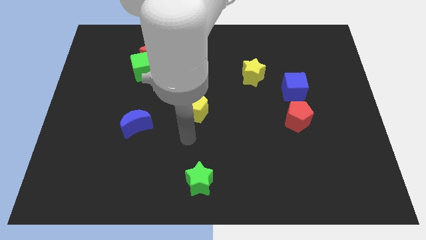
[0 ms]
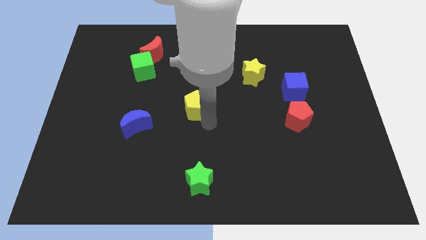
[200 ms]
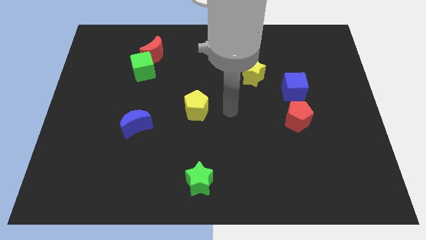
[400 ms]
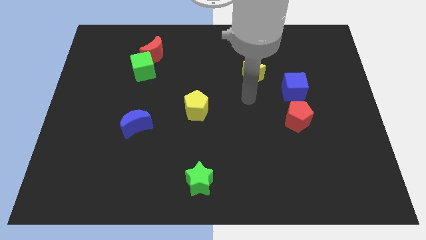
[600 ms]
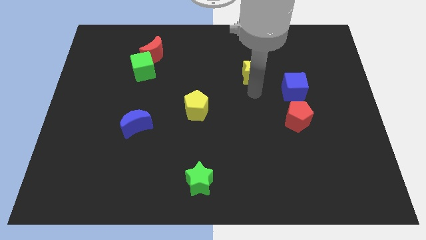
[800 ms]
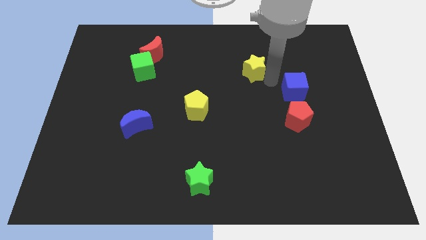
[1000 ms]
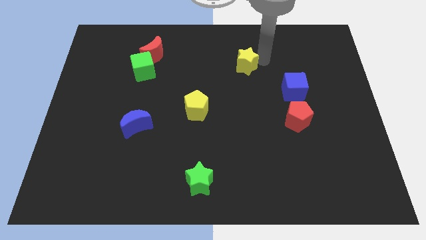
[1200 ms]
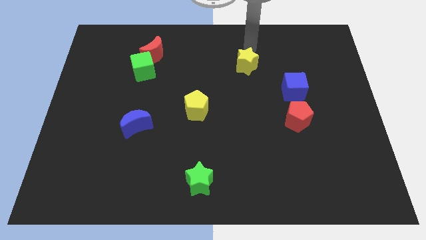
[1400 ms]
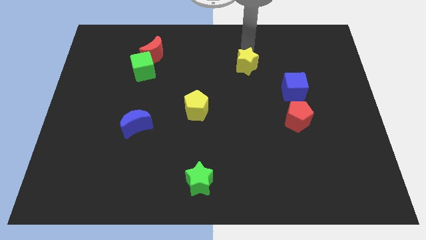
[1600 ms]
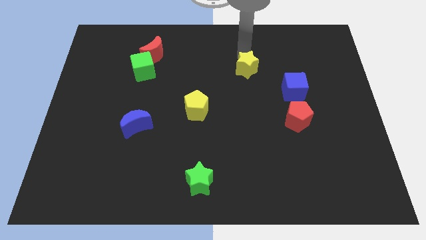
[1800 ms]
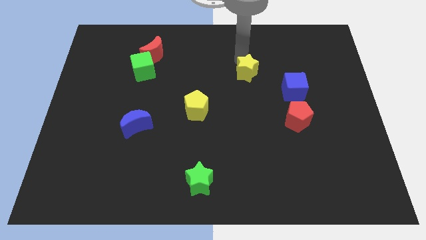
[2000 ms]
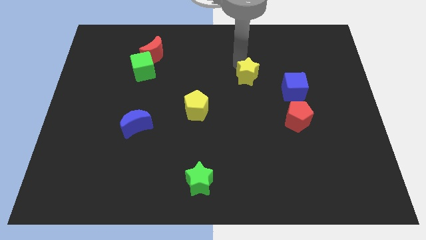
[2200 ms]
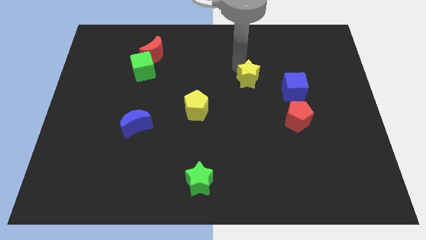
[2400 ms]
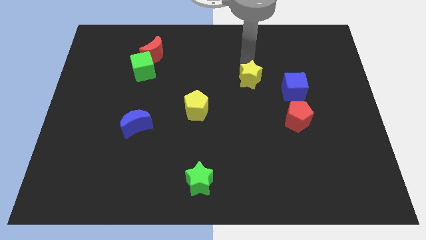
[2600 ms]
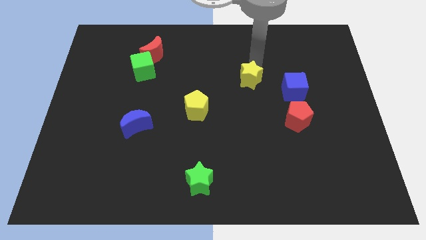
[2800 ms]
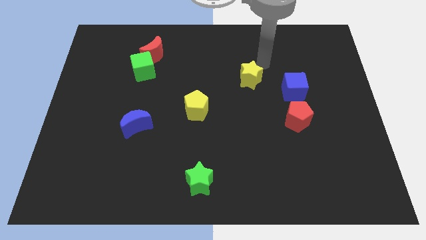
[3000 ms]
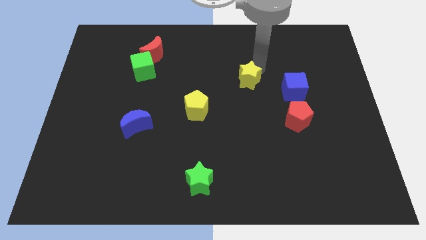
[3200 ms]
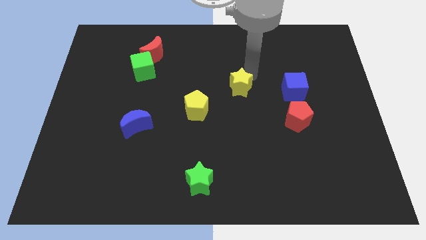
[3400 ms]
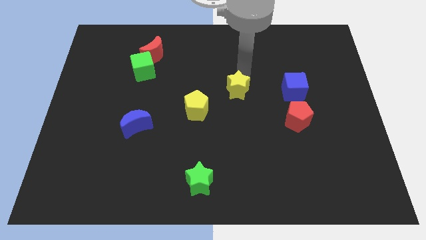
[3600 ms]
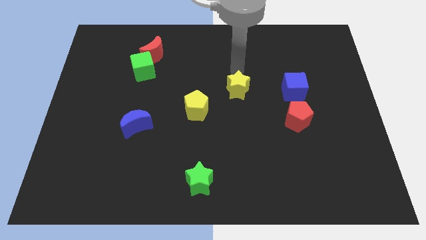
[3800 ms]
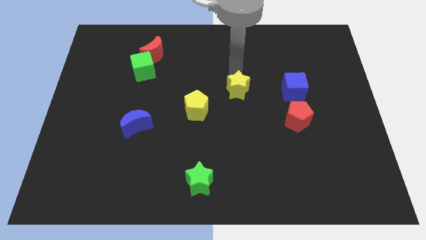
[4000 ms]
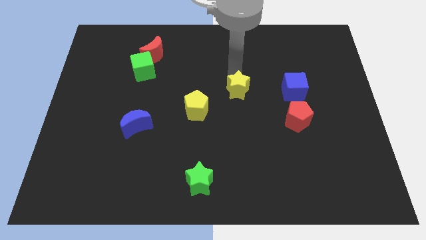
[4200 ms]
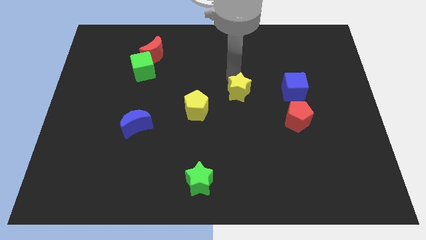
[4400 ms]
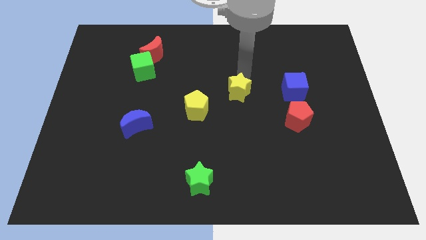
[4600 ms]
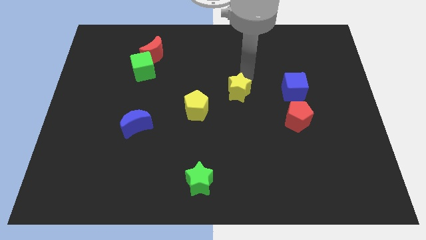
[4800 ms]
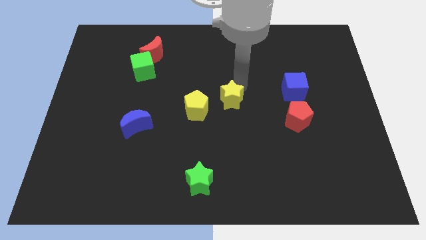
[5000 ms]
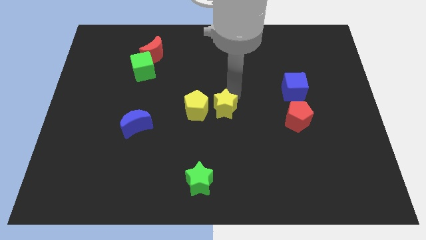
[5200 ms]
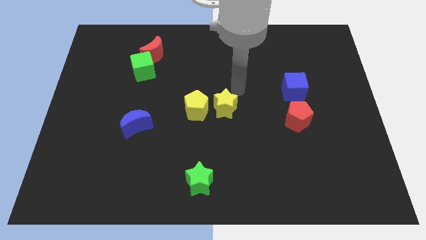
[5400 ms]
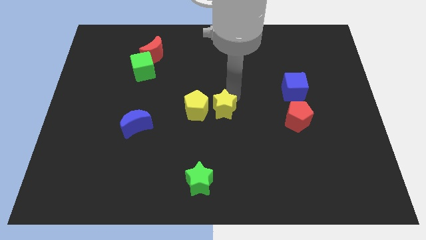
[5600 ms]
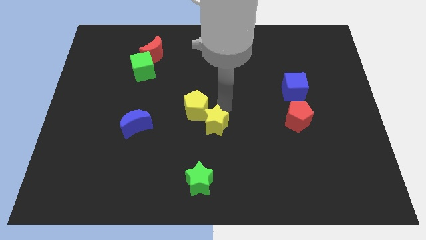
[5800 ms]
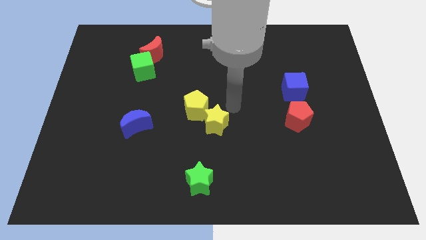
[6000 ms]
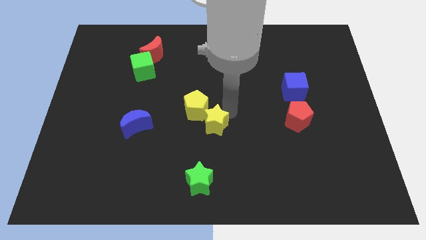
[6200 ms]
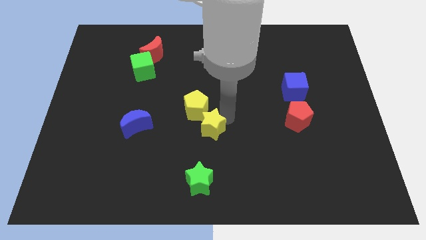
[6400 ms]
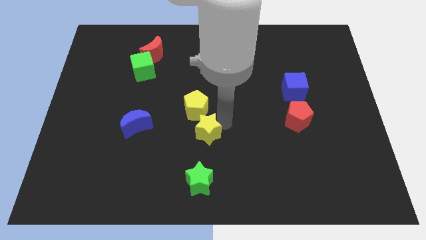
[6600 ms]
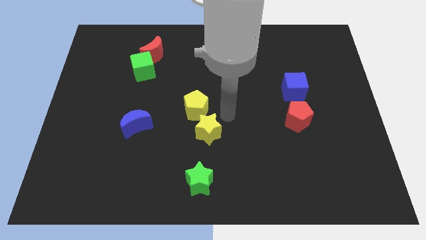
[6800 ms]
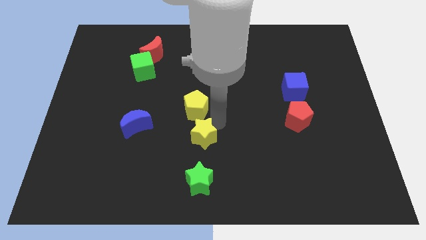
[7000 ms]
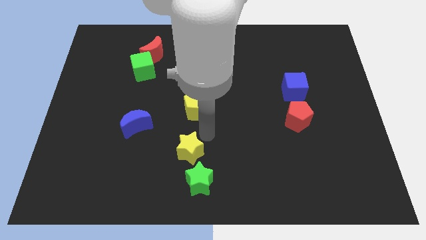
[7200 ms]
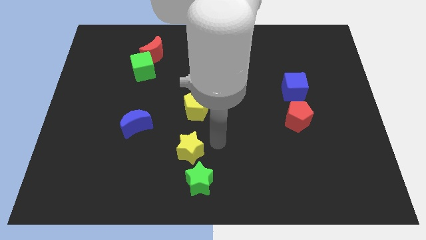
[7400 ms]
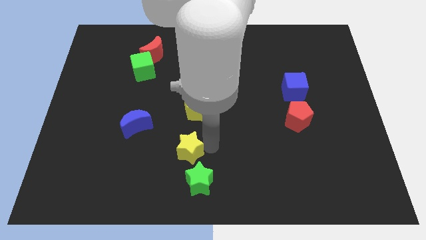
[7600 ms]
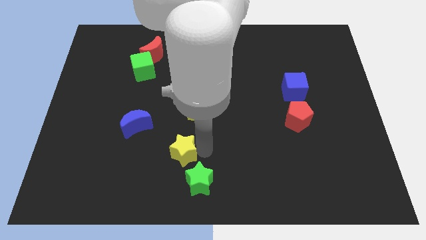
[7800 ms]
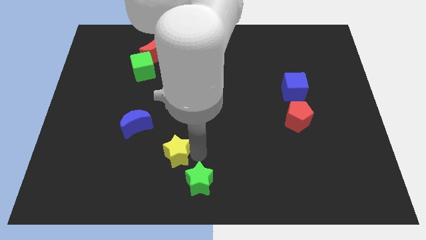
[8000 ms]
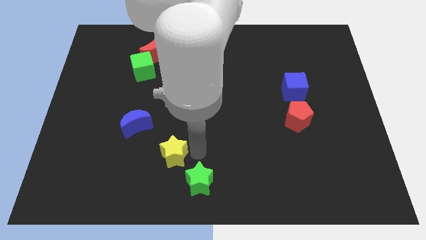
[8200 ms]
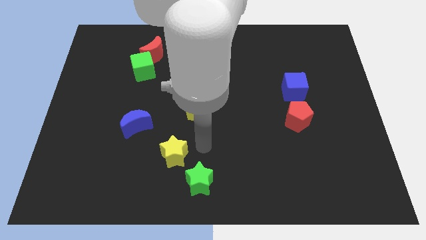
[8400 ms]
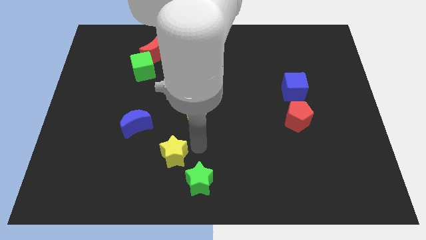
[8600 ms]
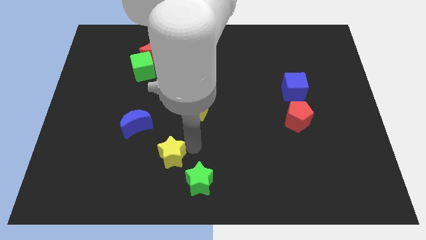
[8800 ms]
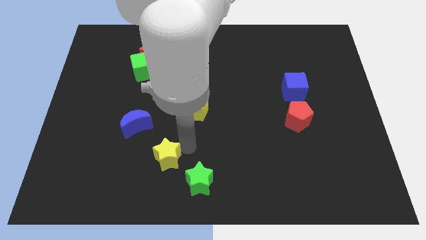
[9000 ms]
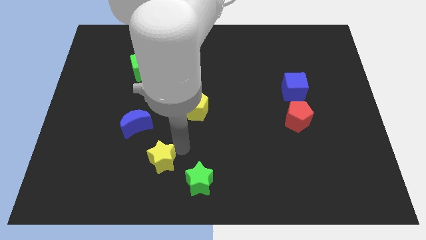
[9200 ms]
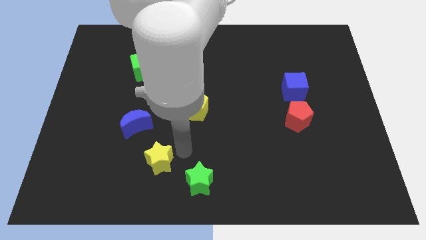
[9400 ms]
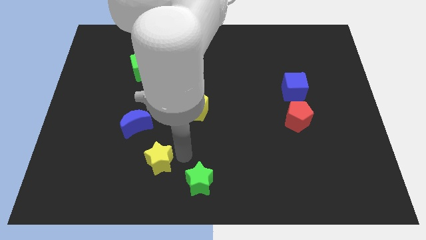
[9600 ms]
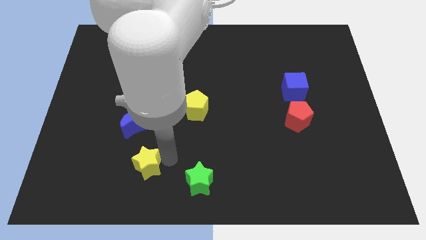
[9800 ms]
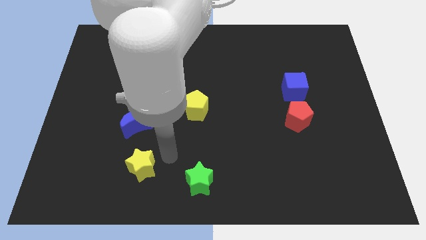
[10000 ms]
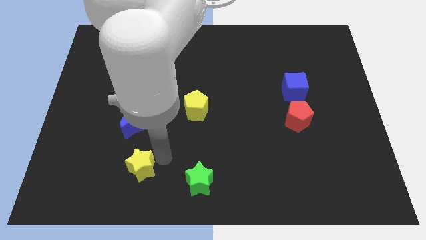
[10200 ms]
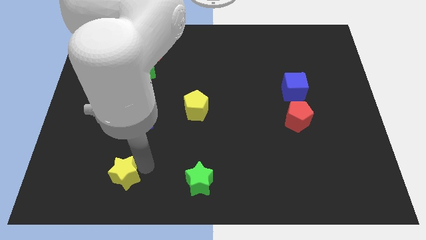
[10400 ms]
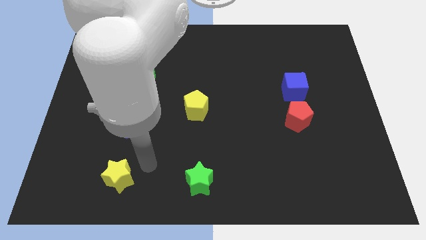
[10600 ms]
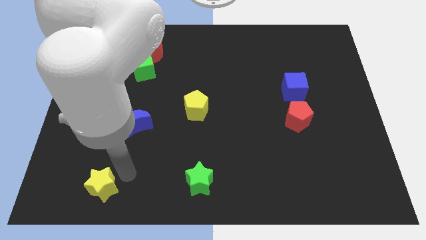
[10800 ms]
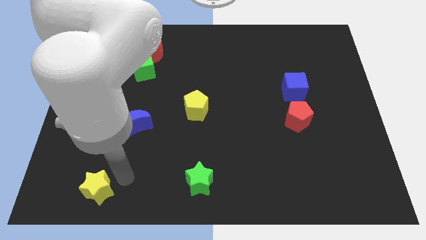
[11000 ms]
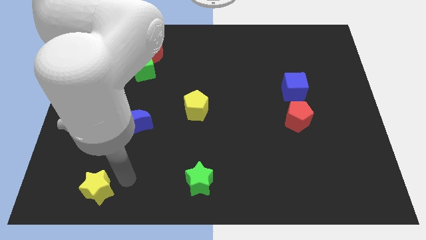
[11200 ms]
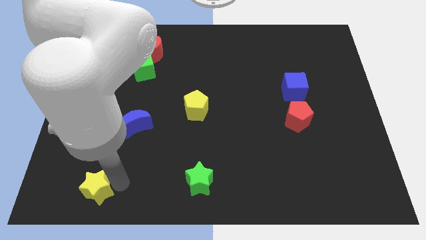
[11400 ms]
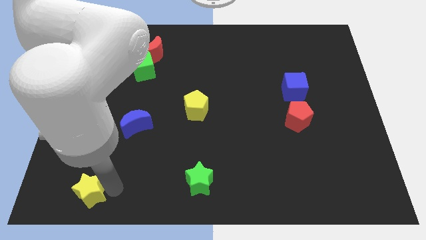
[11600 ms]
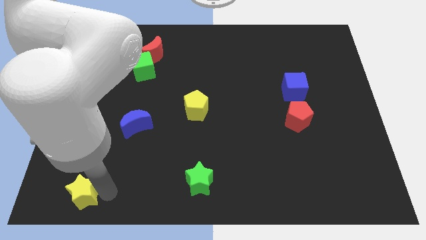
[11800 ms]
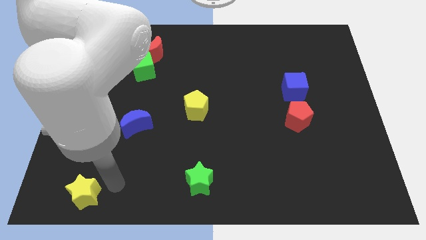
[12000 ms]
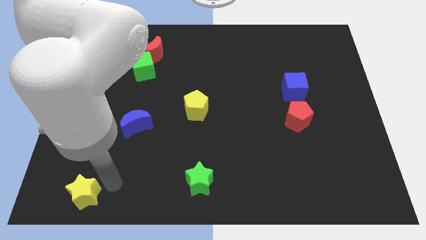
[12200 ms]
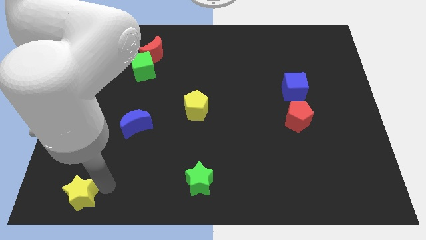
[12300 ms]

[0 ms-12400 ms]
slide the yellow star to the bottom left corner
